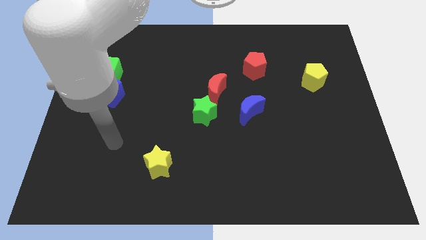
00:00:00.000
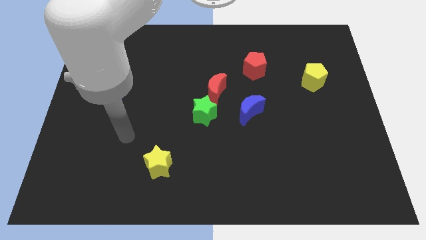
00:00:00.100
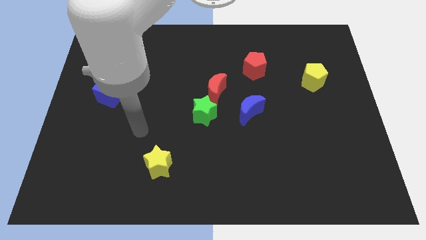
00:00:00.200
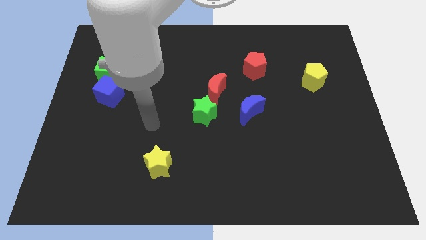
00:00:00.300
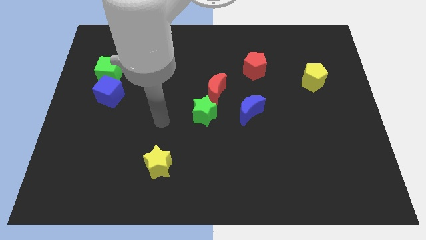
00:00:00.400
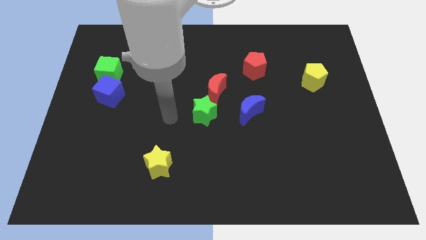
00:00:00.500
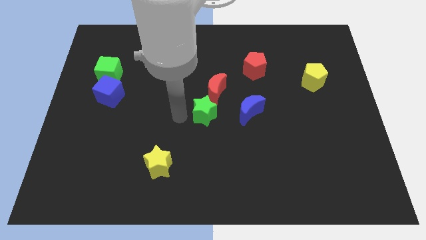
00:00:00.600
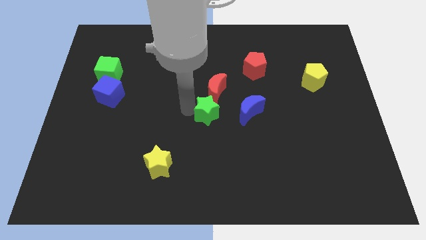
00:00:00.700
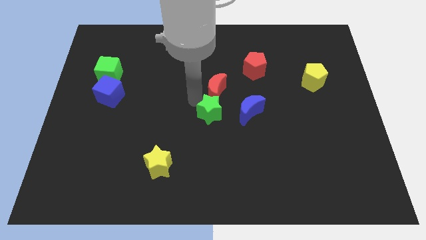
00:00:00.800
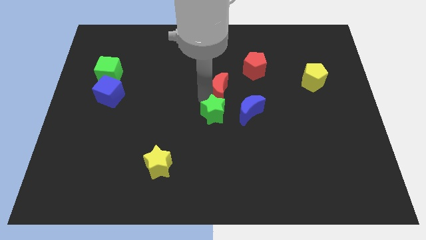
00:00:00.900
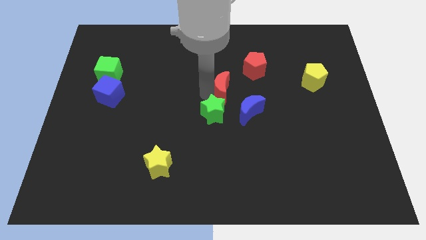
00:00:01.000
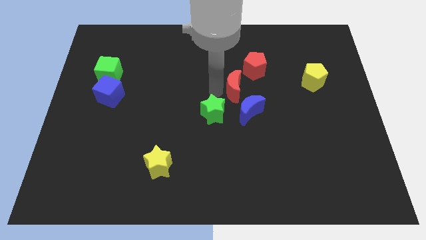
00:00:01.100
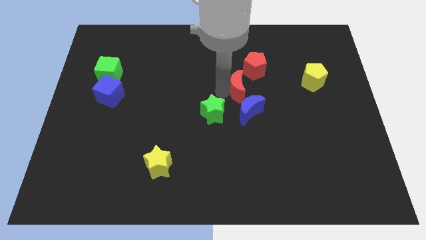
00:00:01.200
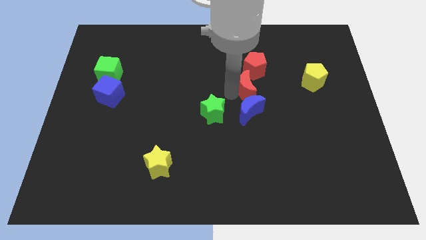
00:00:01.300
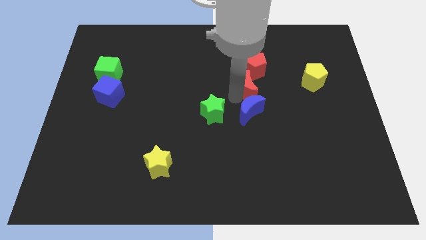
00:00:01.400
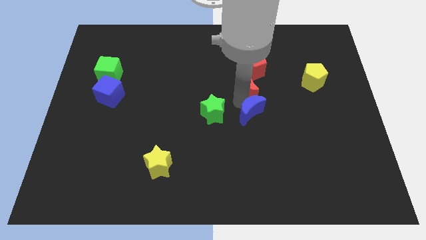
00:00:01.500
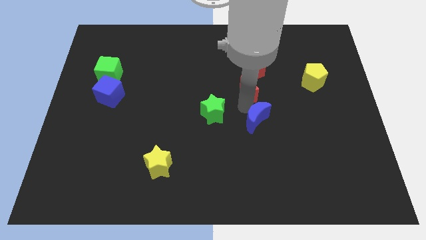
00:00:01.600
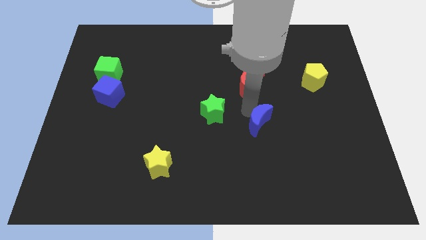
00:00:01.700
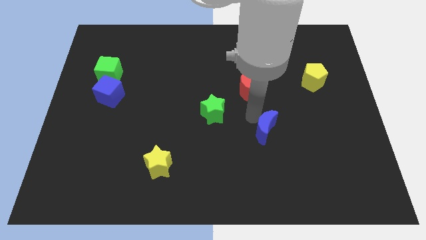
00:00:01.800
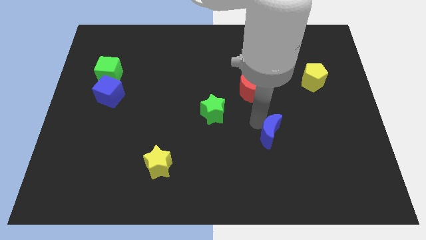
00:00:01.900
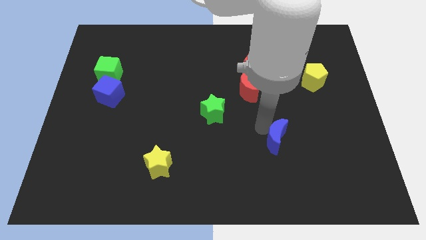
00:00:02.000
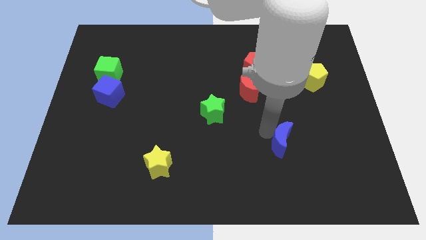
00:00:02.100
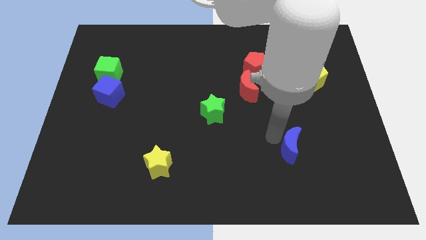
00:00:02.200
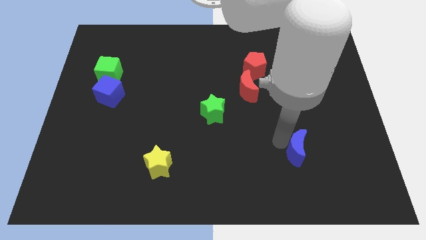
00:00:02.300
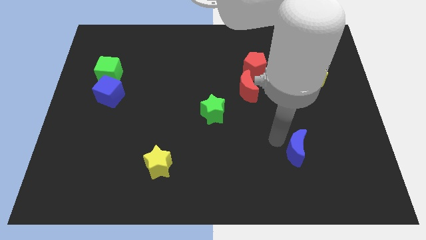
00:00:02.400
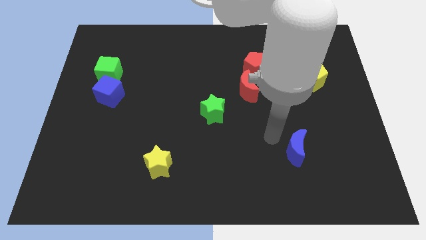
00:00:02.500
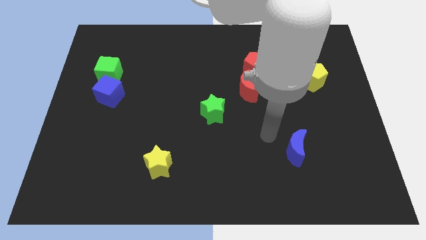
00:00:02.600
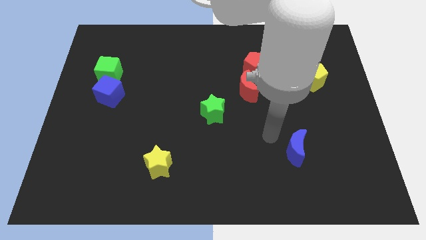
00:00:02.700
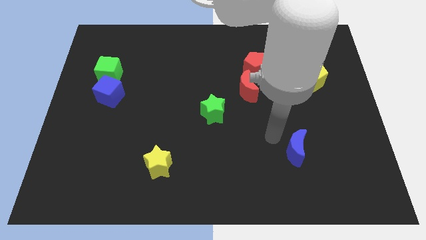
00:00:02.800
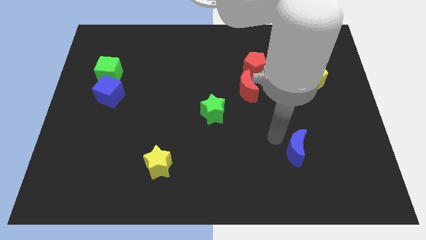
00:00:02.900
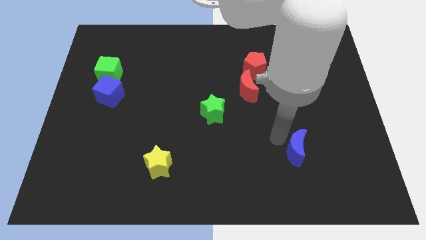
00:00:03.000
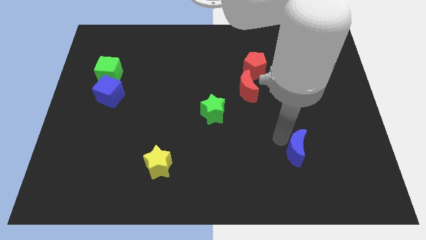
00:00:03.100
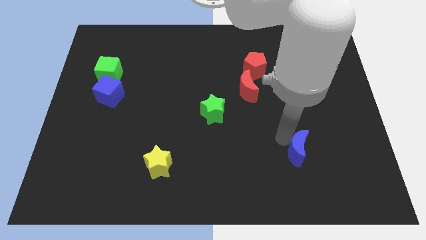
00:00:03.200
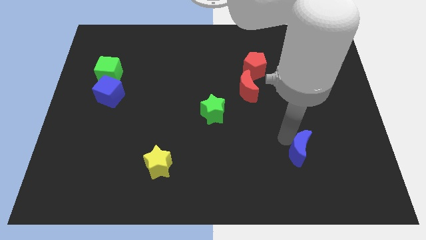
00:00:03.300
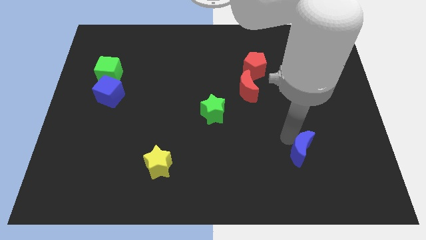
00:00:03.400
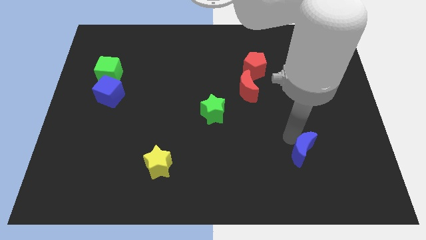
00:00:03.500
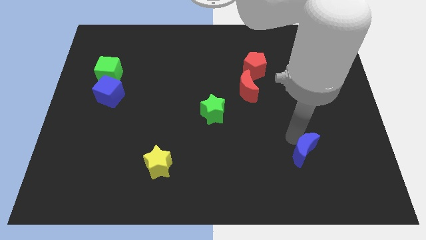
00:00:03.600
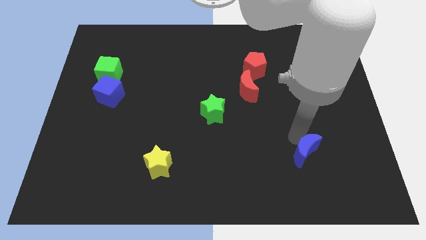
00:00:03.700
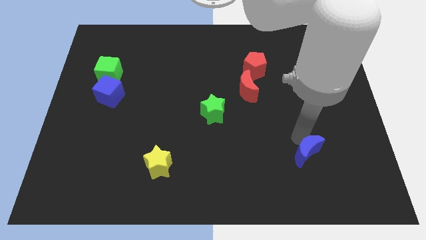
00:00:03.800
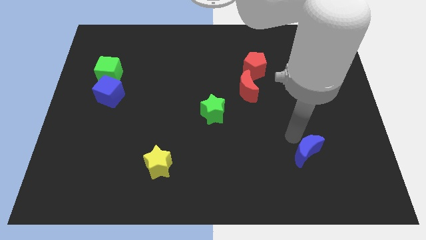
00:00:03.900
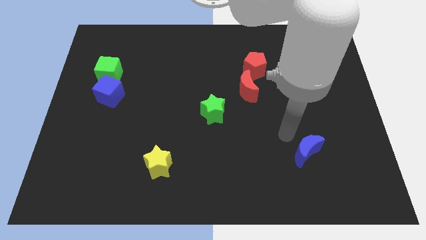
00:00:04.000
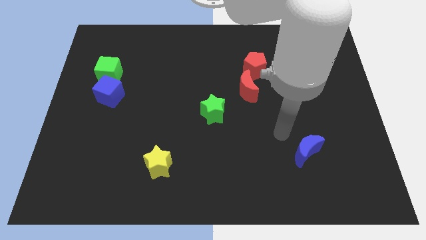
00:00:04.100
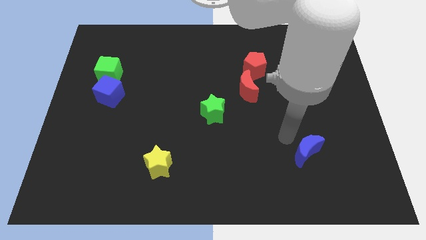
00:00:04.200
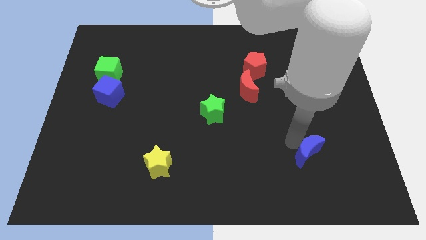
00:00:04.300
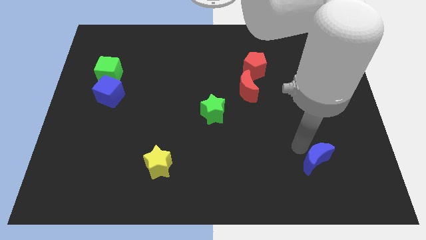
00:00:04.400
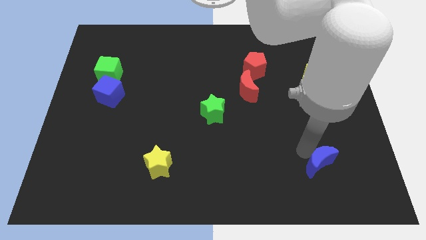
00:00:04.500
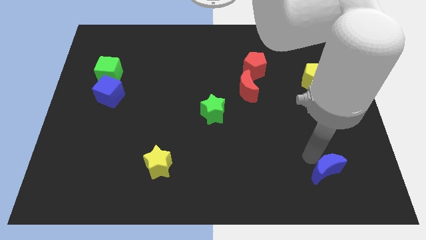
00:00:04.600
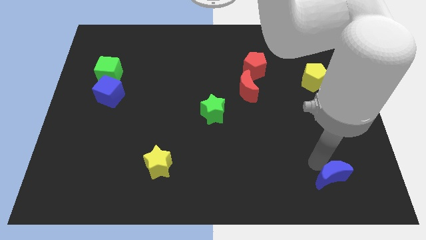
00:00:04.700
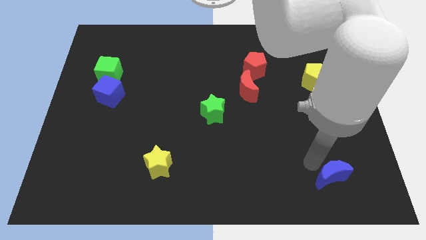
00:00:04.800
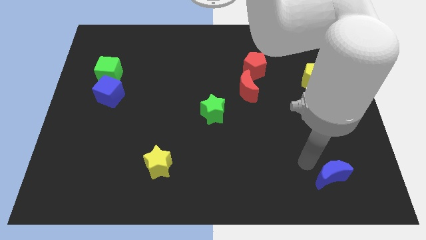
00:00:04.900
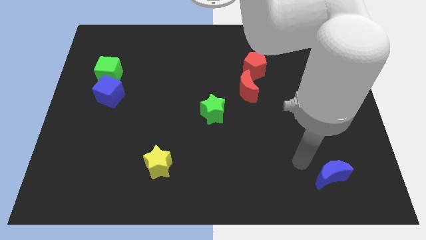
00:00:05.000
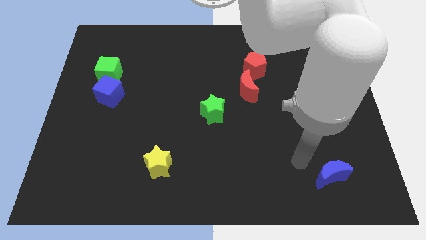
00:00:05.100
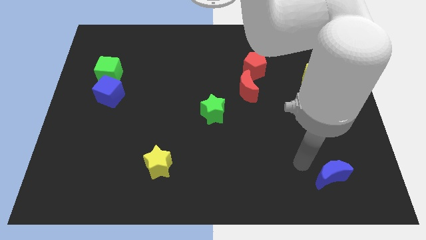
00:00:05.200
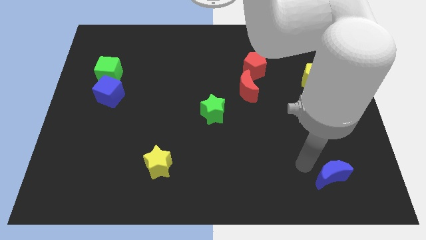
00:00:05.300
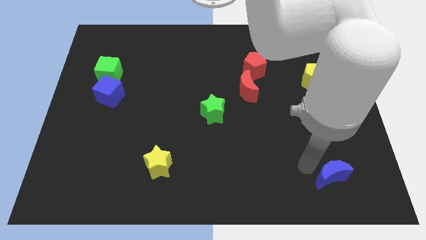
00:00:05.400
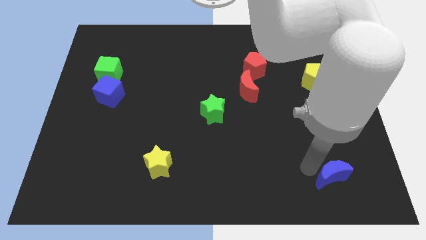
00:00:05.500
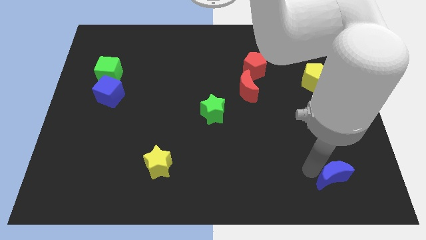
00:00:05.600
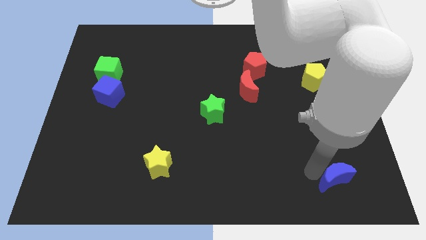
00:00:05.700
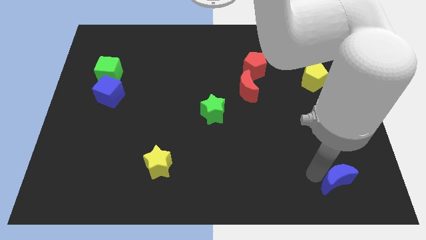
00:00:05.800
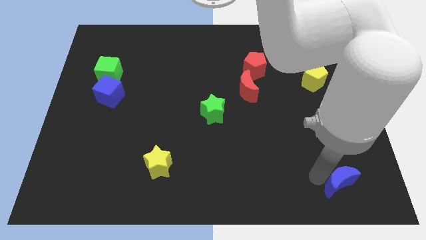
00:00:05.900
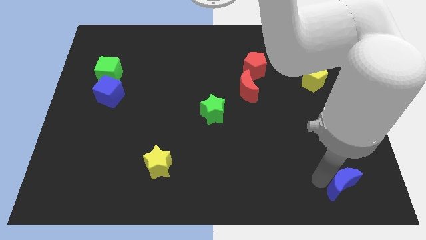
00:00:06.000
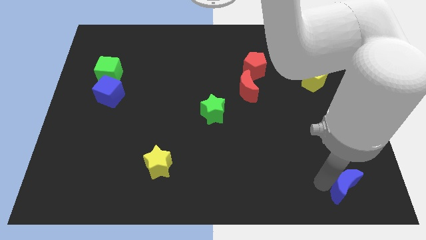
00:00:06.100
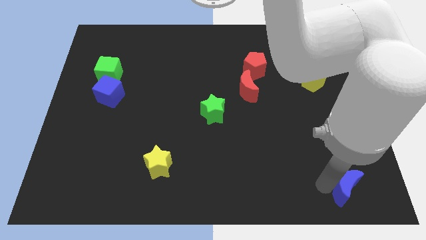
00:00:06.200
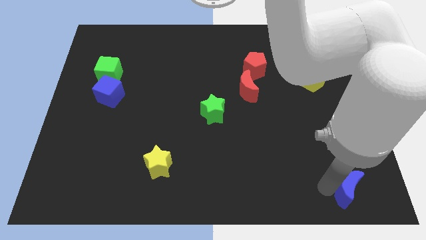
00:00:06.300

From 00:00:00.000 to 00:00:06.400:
slide the blue moon to the lower right corner

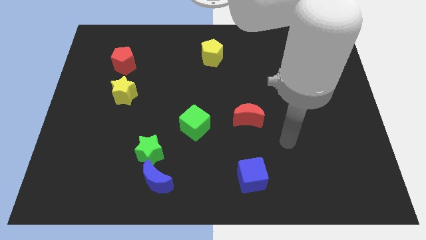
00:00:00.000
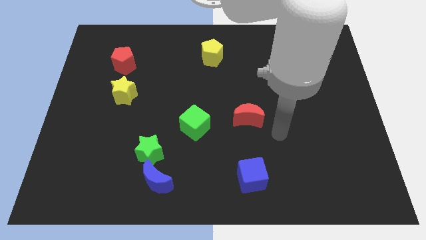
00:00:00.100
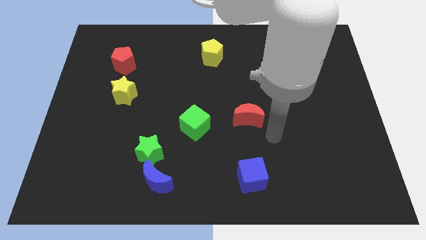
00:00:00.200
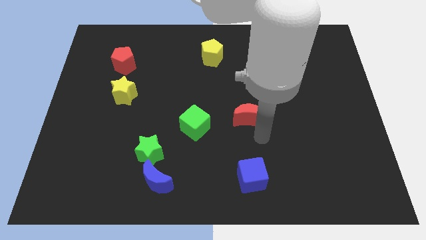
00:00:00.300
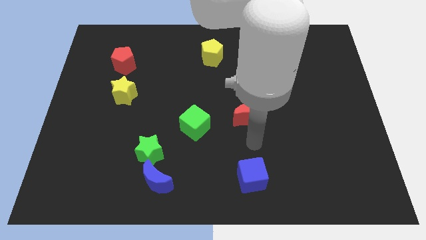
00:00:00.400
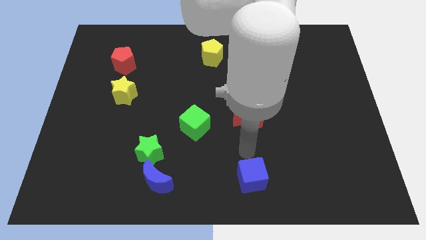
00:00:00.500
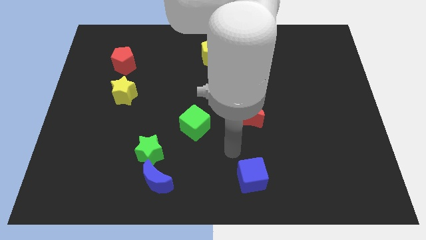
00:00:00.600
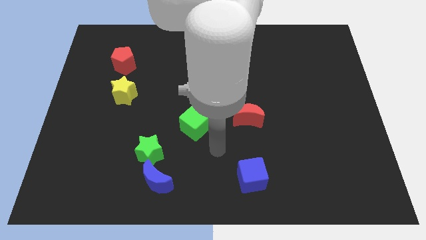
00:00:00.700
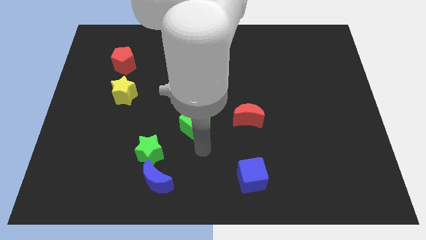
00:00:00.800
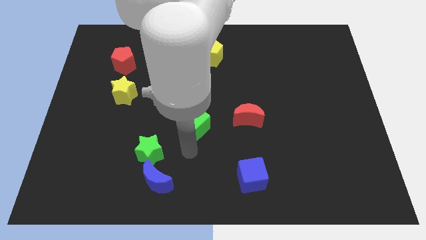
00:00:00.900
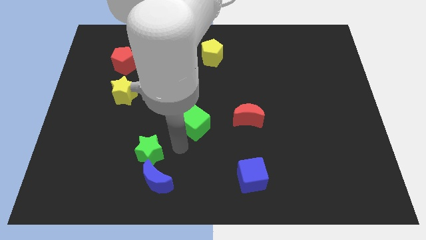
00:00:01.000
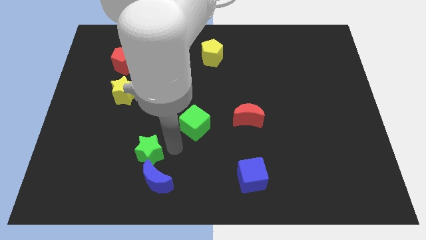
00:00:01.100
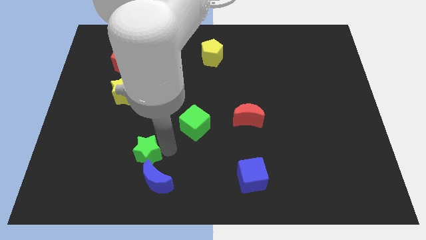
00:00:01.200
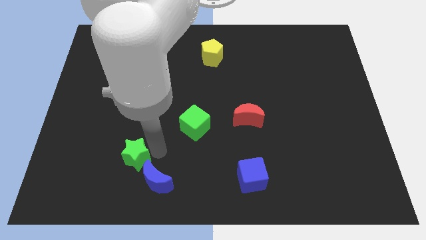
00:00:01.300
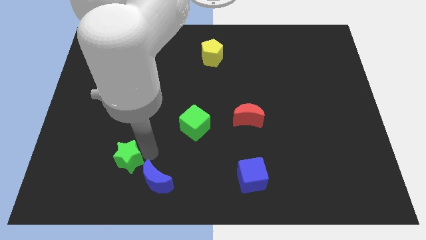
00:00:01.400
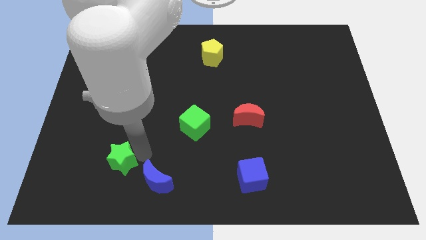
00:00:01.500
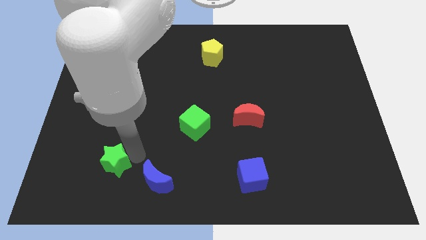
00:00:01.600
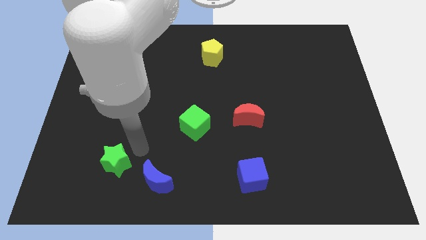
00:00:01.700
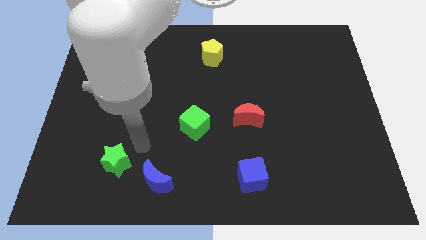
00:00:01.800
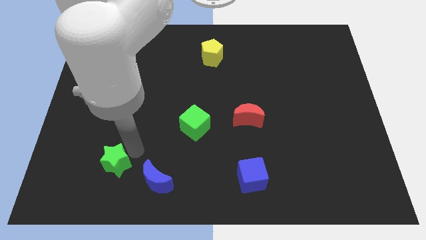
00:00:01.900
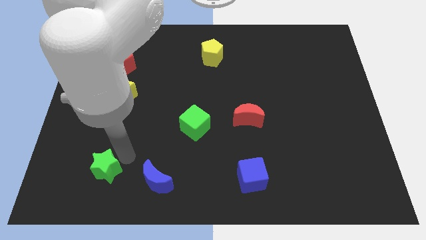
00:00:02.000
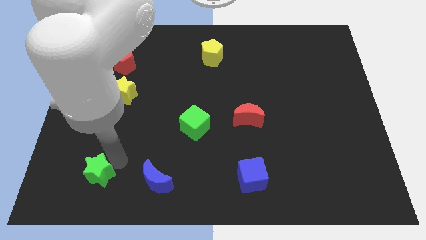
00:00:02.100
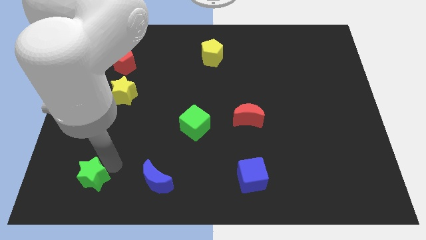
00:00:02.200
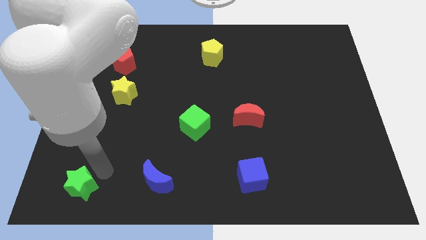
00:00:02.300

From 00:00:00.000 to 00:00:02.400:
push the green star to the bottom left
